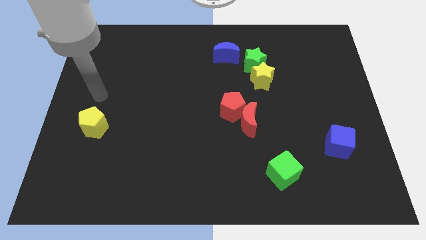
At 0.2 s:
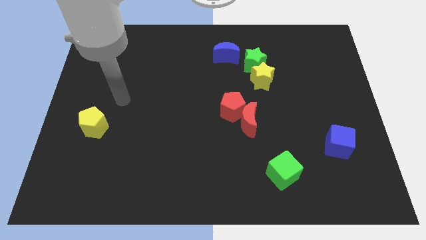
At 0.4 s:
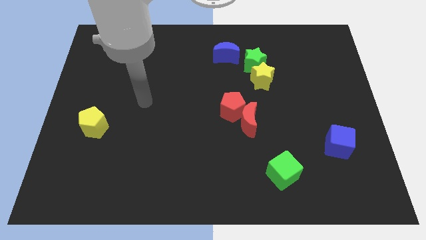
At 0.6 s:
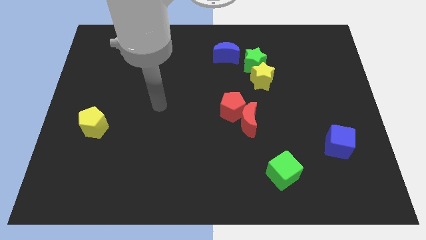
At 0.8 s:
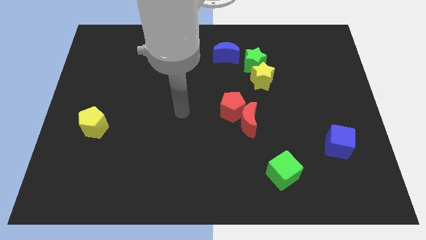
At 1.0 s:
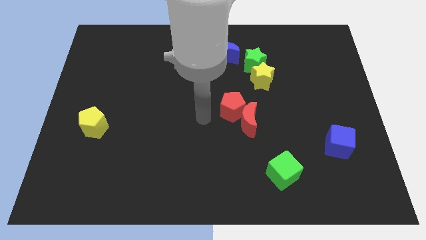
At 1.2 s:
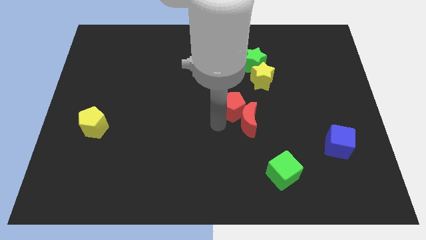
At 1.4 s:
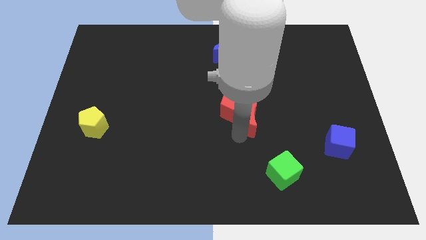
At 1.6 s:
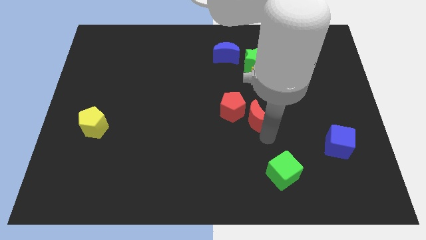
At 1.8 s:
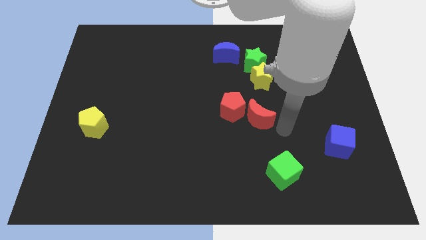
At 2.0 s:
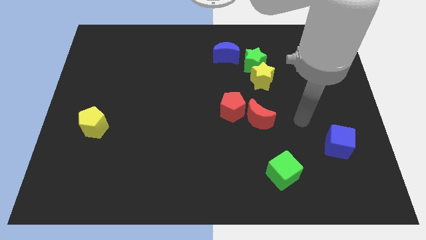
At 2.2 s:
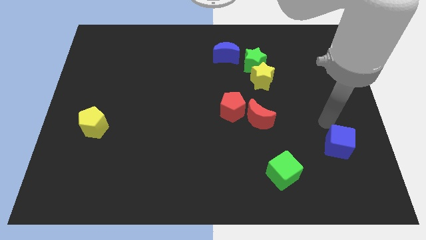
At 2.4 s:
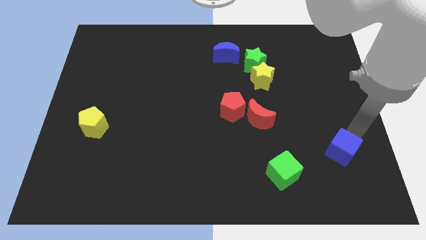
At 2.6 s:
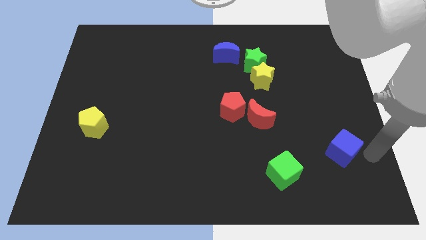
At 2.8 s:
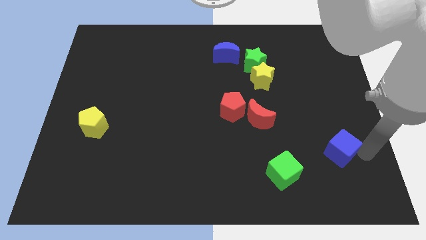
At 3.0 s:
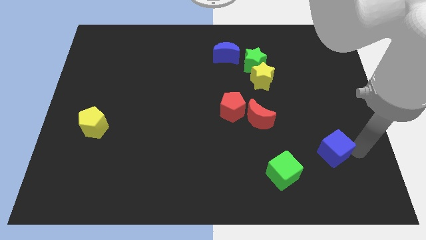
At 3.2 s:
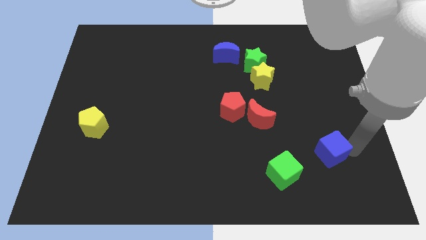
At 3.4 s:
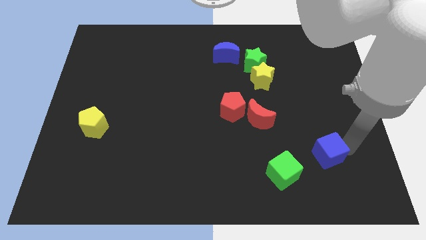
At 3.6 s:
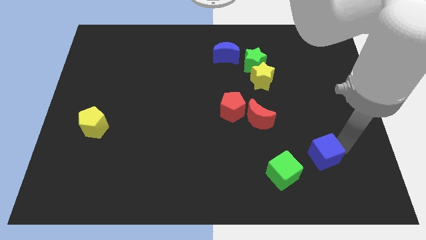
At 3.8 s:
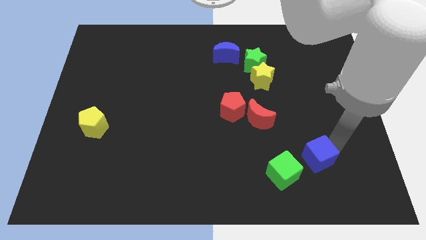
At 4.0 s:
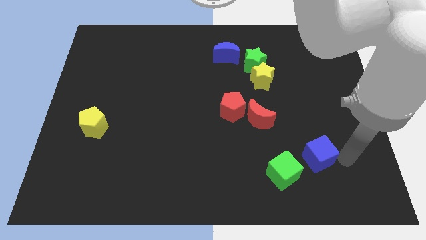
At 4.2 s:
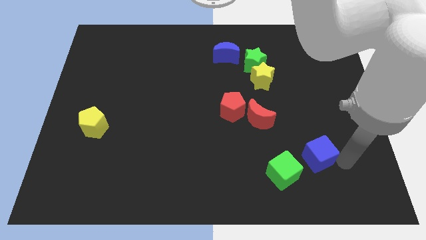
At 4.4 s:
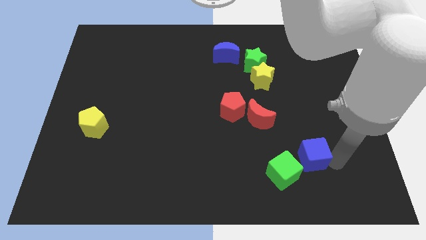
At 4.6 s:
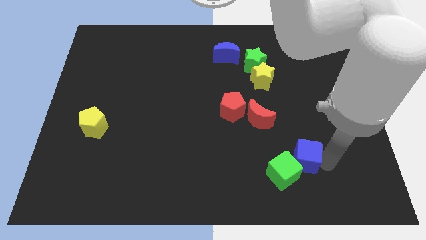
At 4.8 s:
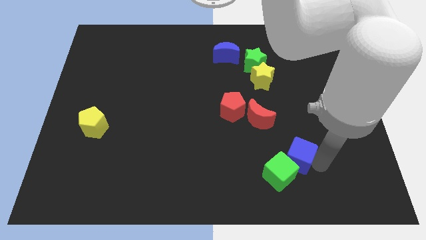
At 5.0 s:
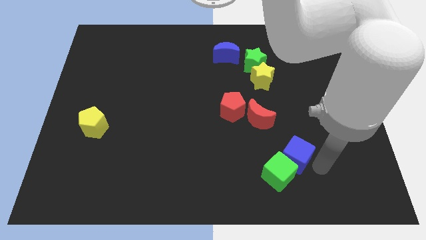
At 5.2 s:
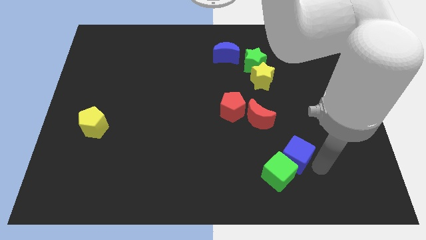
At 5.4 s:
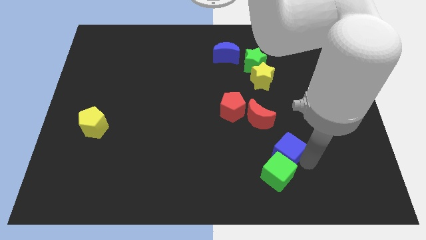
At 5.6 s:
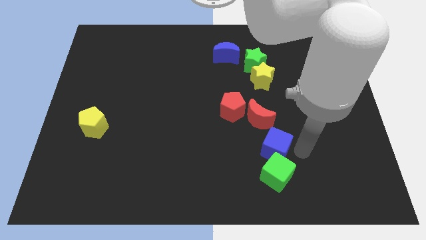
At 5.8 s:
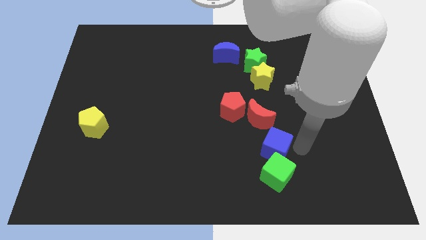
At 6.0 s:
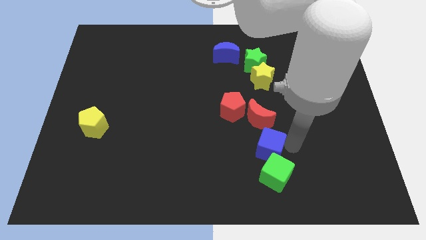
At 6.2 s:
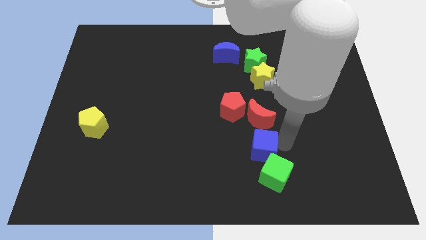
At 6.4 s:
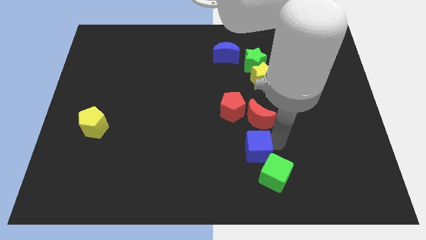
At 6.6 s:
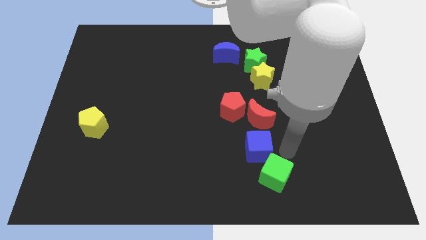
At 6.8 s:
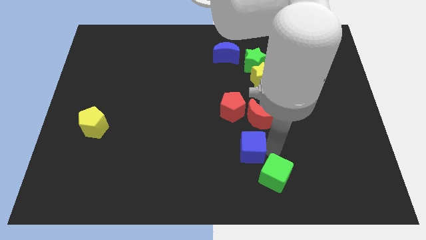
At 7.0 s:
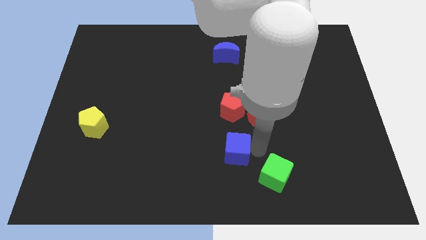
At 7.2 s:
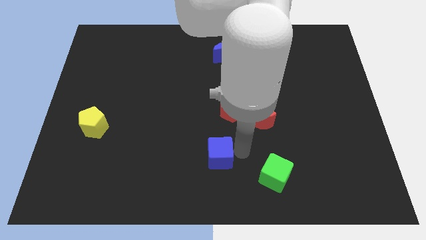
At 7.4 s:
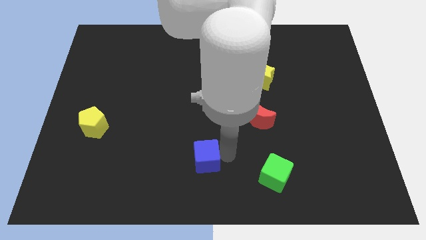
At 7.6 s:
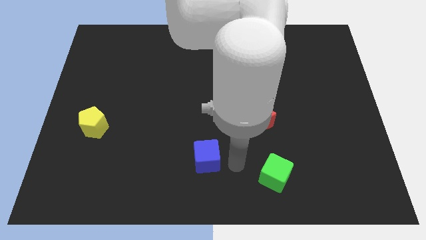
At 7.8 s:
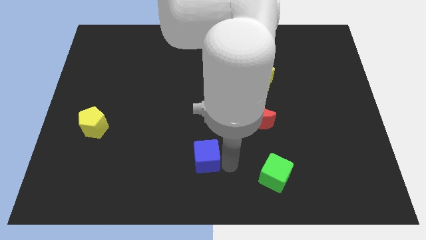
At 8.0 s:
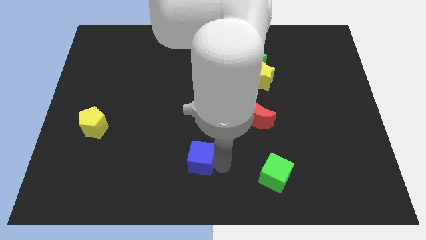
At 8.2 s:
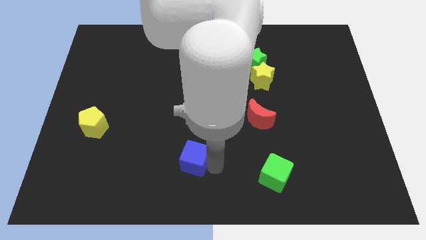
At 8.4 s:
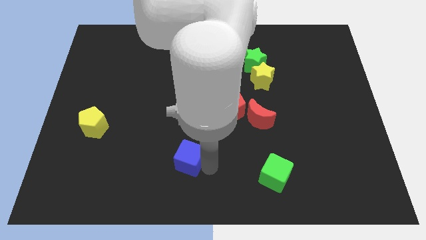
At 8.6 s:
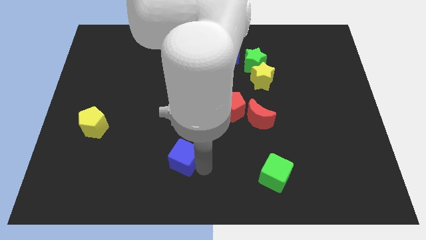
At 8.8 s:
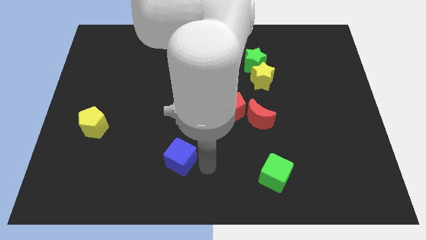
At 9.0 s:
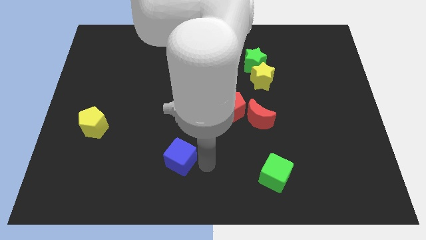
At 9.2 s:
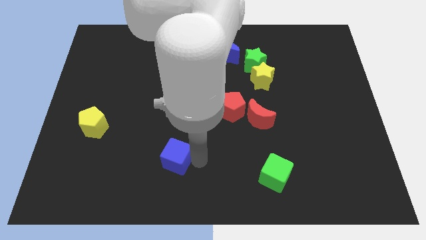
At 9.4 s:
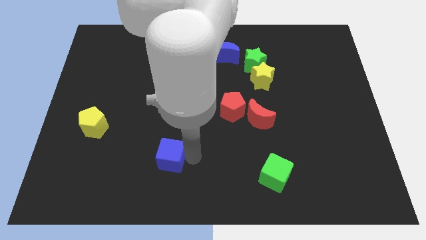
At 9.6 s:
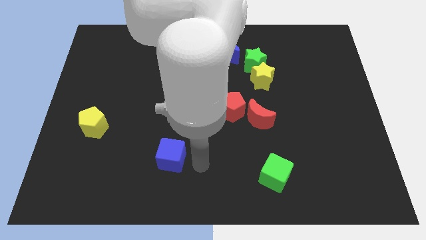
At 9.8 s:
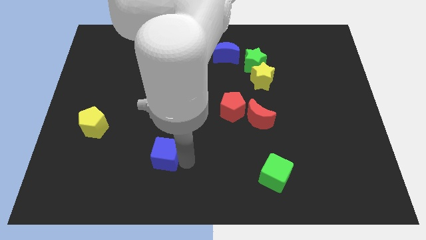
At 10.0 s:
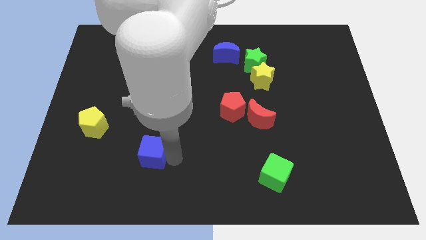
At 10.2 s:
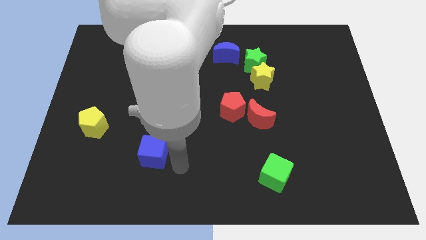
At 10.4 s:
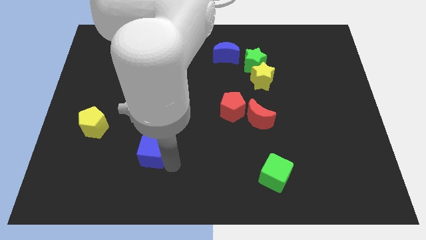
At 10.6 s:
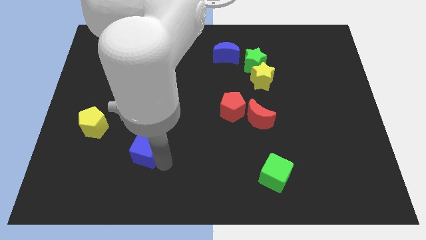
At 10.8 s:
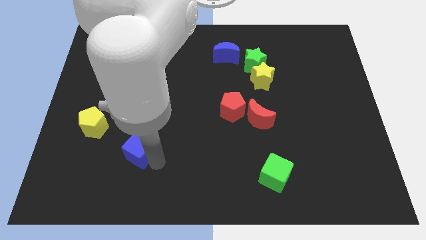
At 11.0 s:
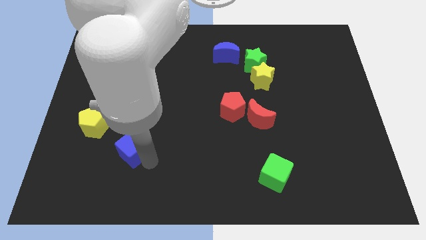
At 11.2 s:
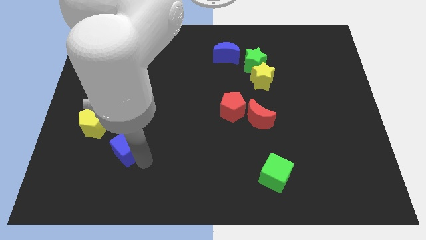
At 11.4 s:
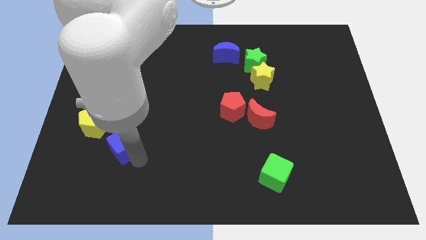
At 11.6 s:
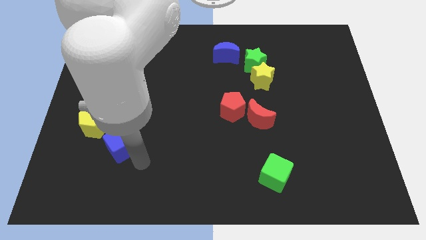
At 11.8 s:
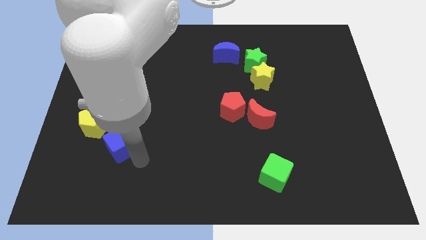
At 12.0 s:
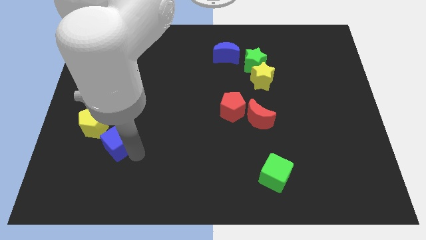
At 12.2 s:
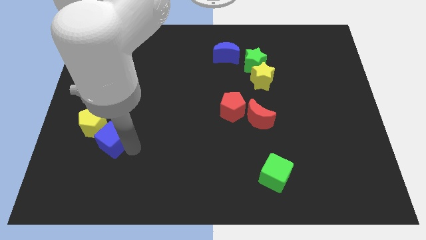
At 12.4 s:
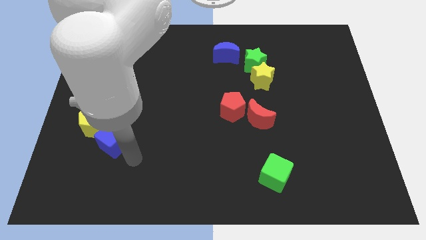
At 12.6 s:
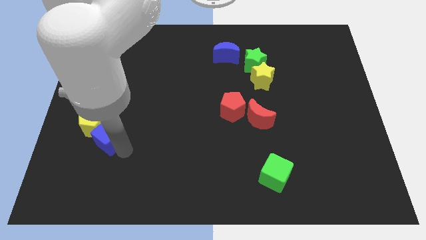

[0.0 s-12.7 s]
push the blue cube close to the yellow pentagon

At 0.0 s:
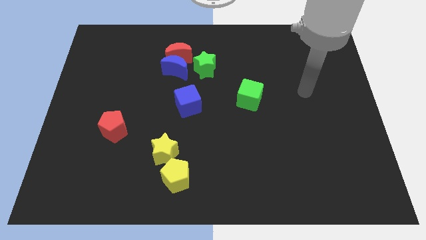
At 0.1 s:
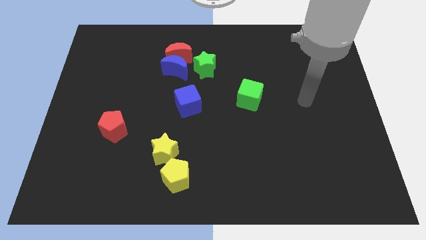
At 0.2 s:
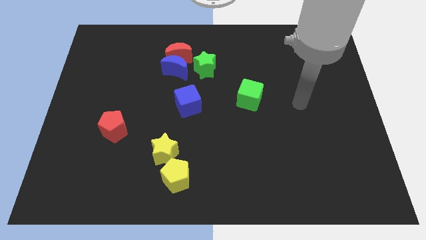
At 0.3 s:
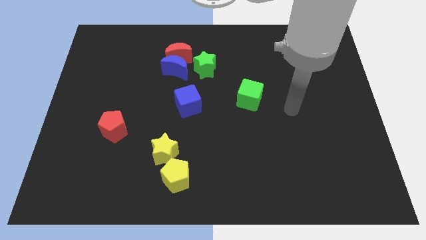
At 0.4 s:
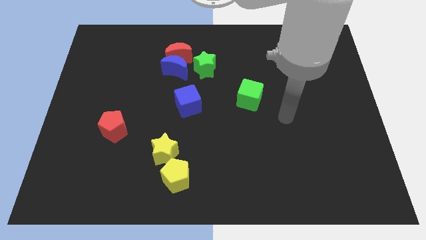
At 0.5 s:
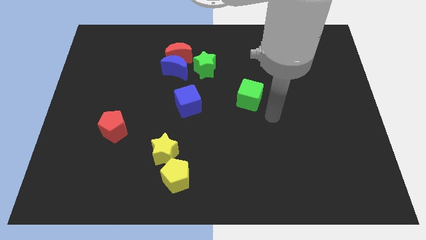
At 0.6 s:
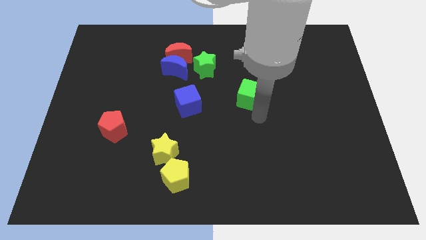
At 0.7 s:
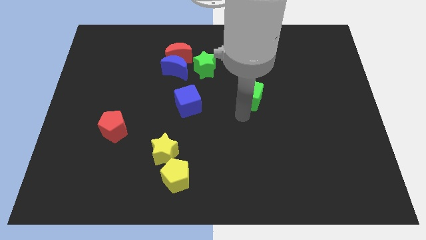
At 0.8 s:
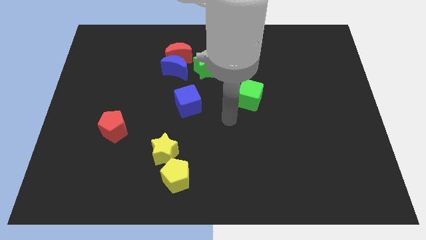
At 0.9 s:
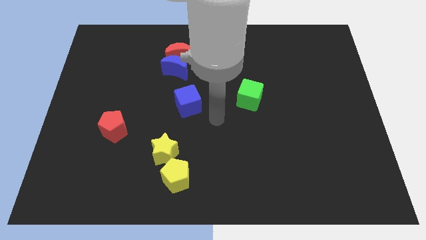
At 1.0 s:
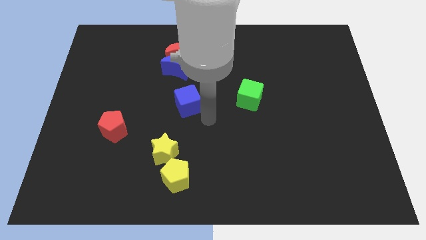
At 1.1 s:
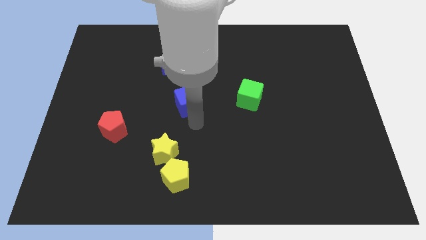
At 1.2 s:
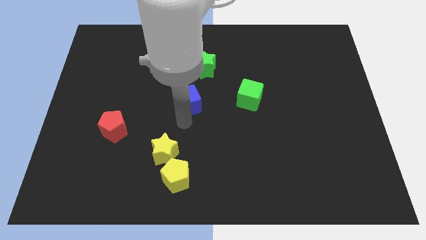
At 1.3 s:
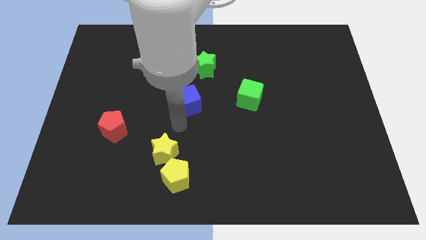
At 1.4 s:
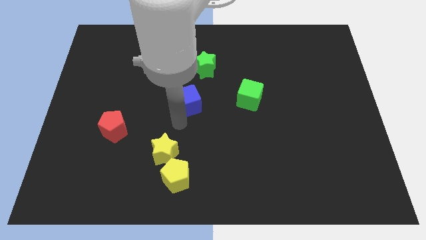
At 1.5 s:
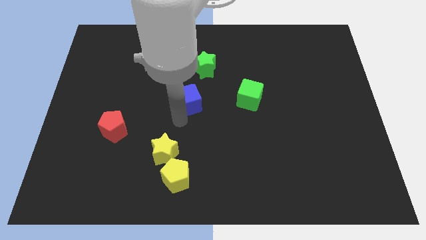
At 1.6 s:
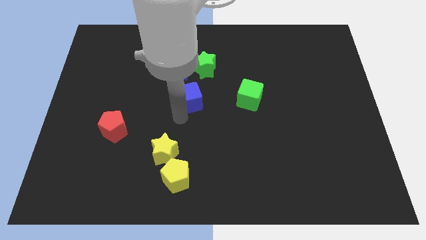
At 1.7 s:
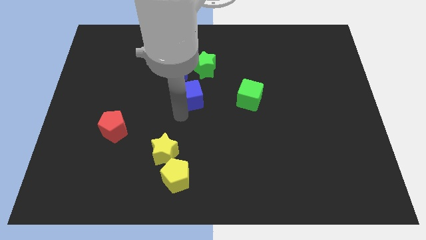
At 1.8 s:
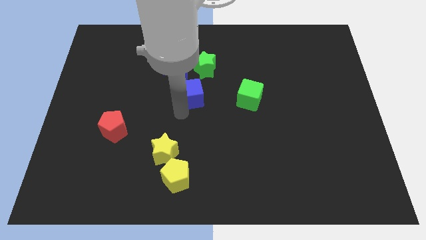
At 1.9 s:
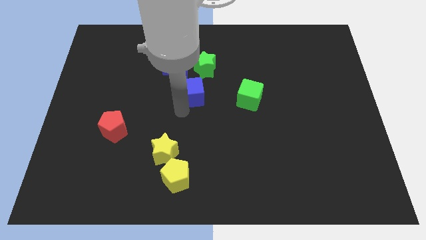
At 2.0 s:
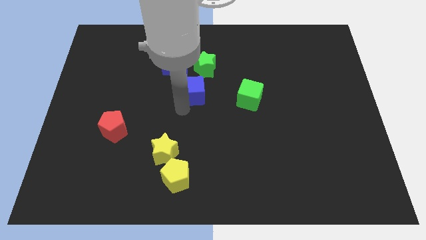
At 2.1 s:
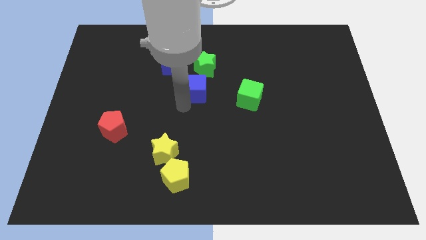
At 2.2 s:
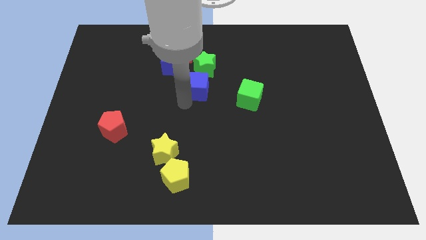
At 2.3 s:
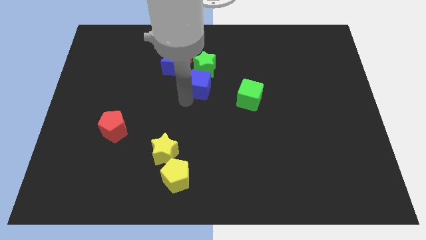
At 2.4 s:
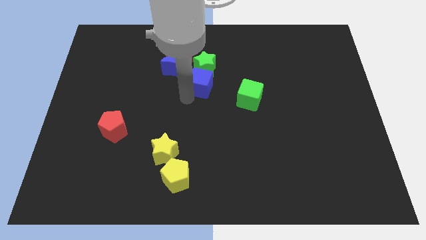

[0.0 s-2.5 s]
move the blue cube to the green star
